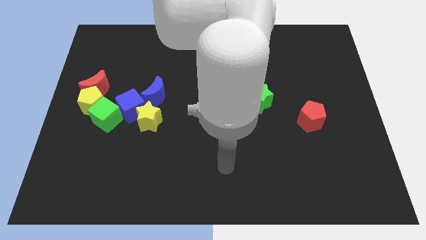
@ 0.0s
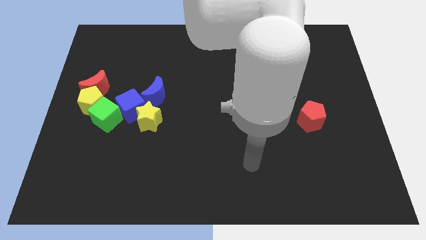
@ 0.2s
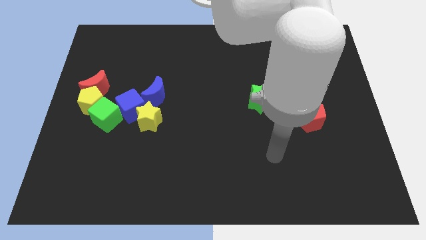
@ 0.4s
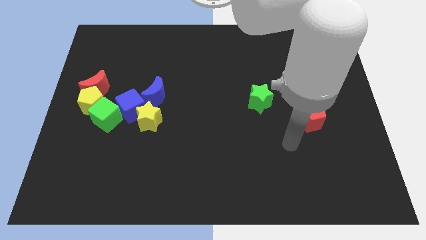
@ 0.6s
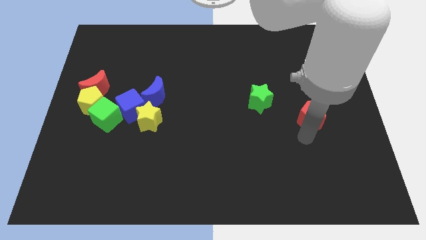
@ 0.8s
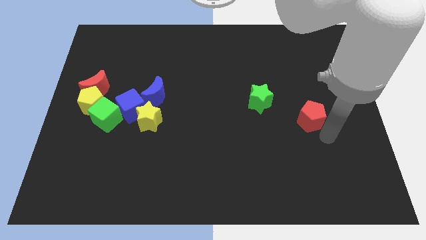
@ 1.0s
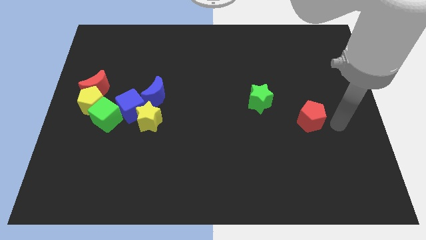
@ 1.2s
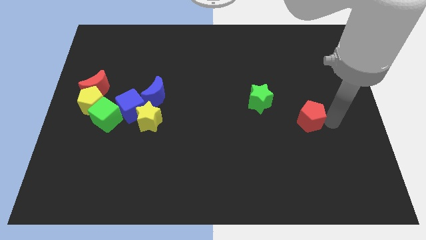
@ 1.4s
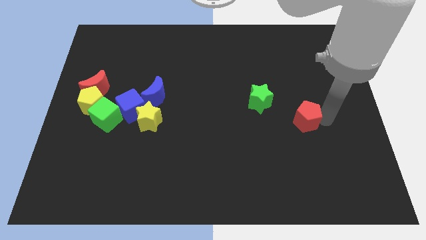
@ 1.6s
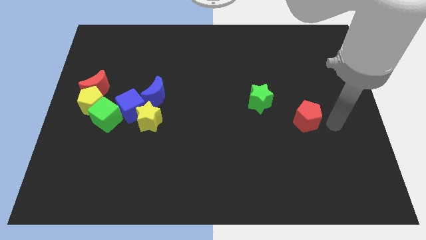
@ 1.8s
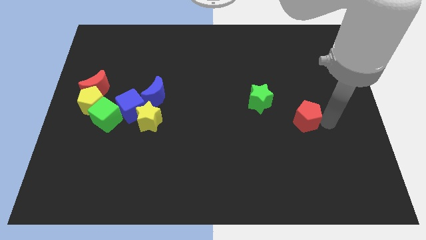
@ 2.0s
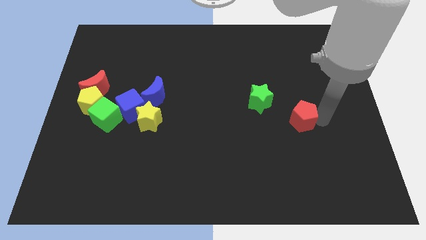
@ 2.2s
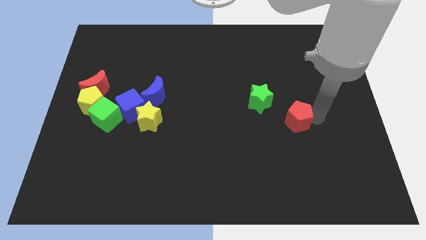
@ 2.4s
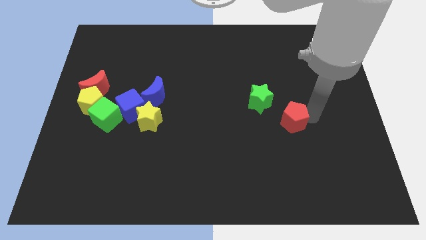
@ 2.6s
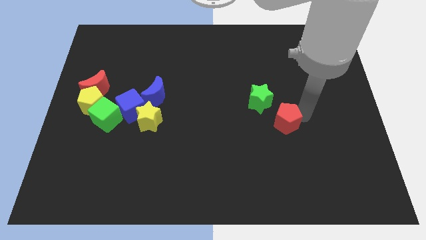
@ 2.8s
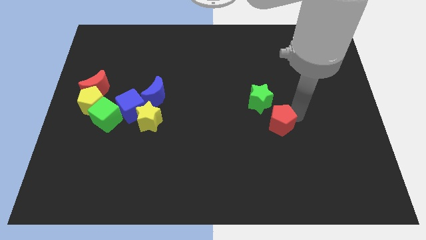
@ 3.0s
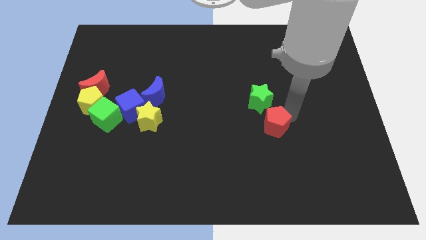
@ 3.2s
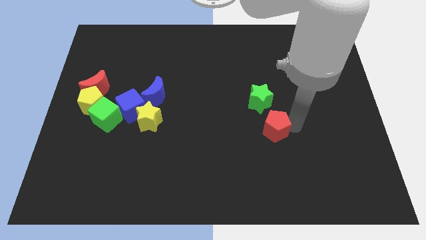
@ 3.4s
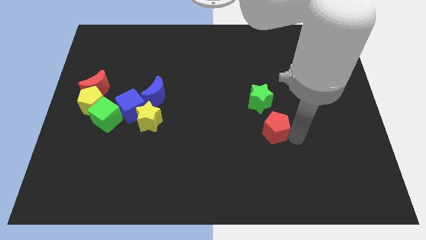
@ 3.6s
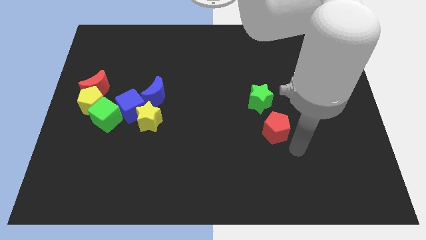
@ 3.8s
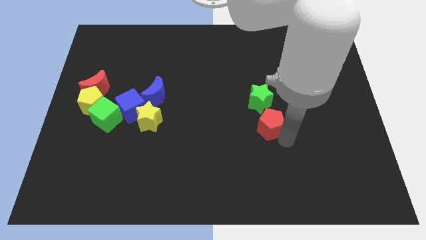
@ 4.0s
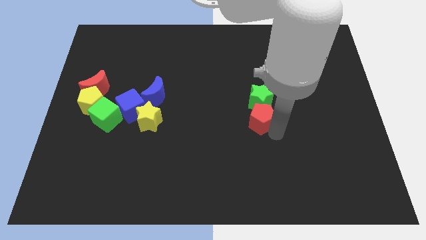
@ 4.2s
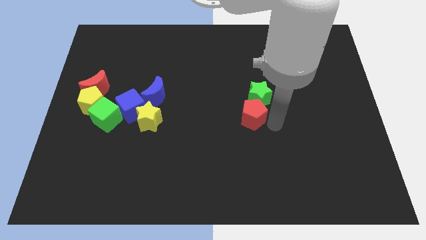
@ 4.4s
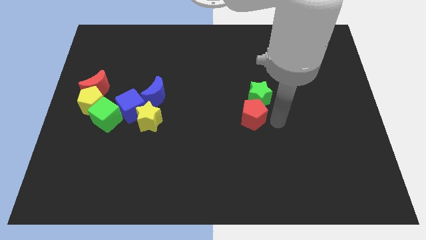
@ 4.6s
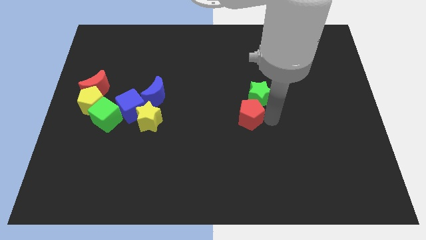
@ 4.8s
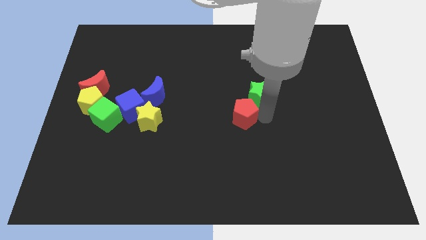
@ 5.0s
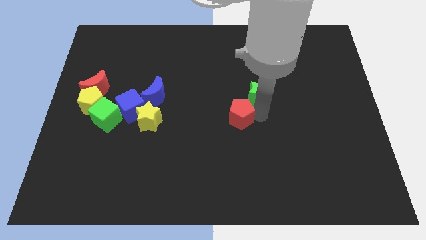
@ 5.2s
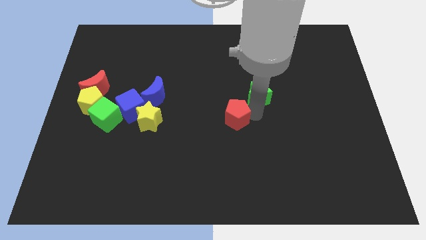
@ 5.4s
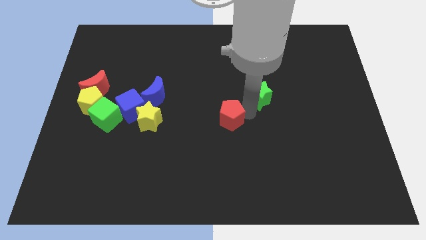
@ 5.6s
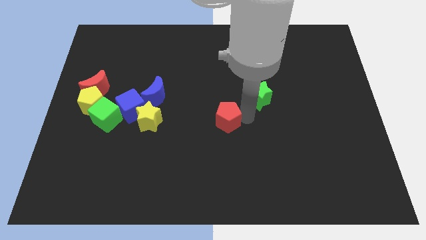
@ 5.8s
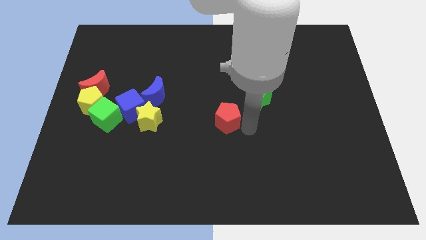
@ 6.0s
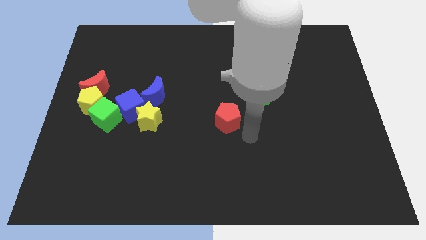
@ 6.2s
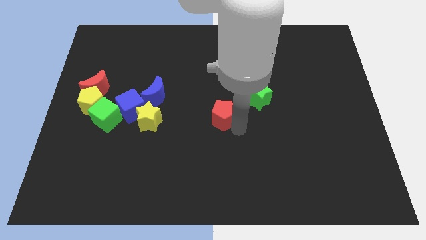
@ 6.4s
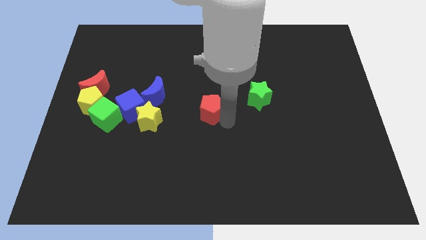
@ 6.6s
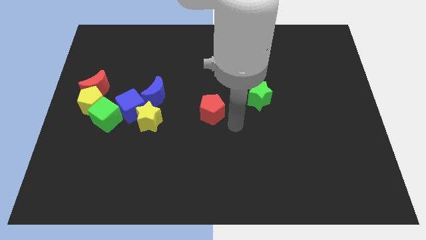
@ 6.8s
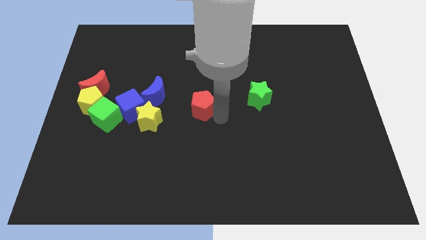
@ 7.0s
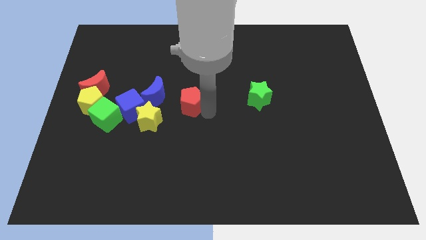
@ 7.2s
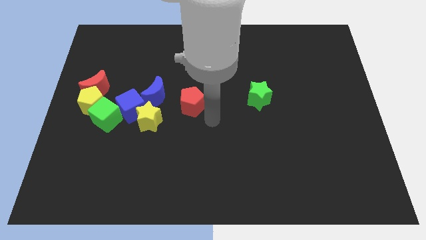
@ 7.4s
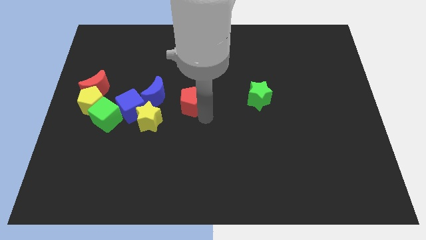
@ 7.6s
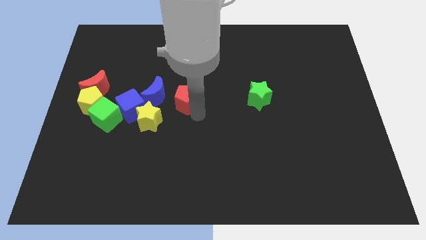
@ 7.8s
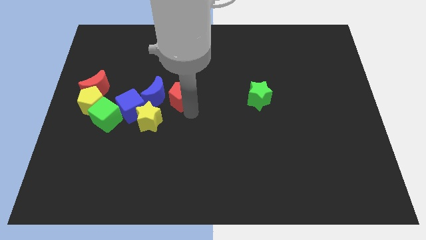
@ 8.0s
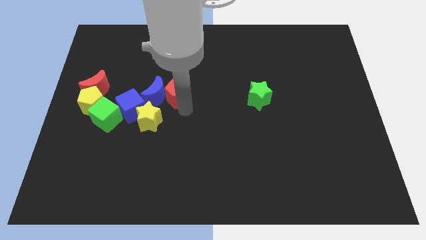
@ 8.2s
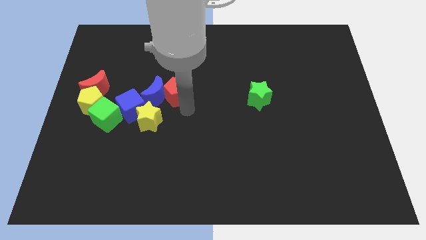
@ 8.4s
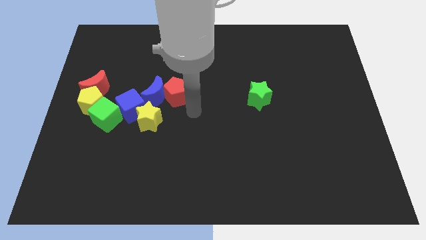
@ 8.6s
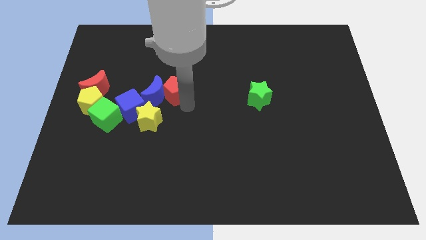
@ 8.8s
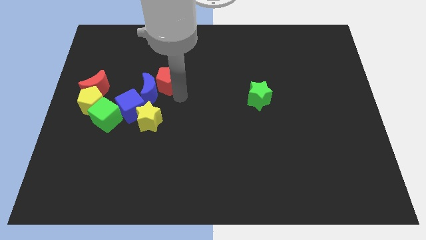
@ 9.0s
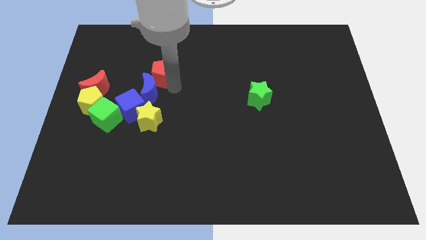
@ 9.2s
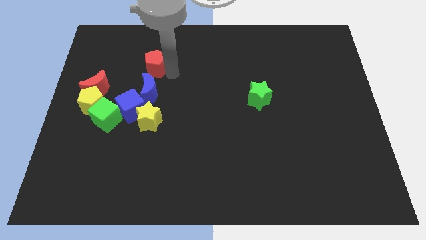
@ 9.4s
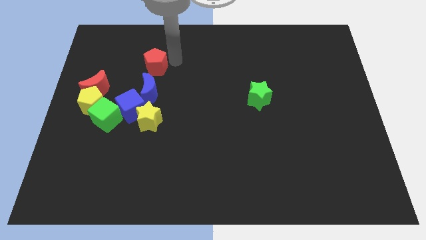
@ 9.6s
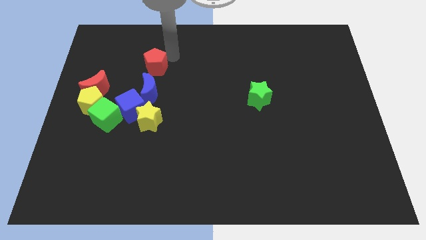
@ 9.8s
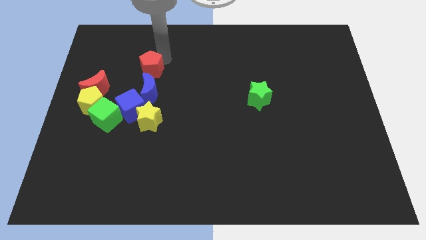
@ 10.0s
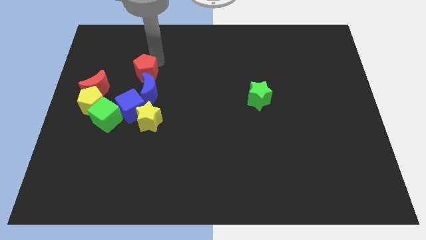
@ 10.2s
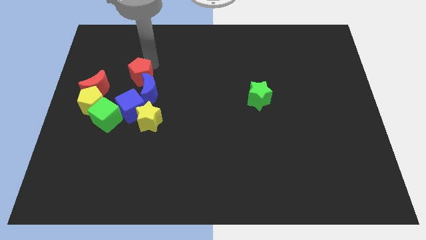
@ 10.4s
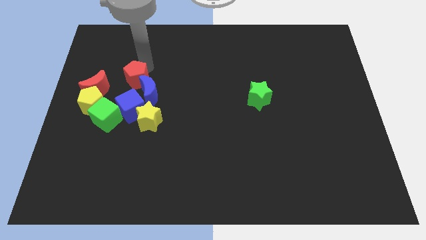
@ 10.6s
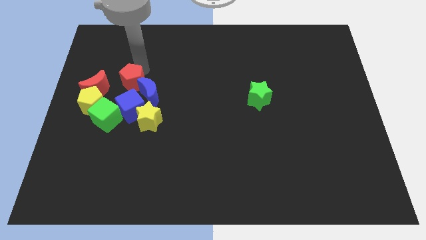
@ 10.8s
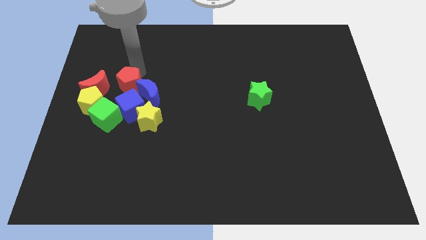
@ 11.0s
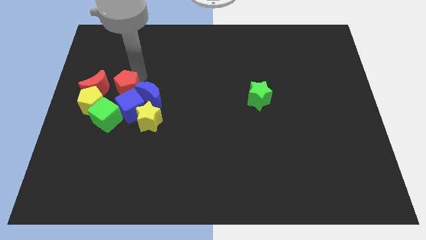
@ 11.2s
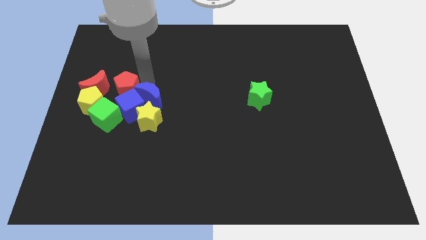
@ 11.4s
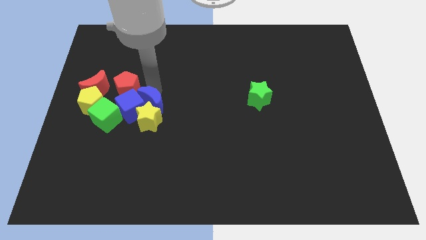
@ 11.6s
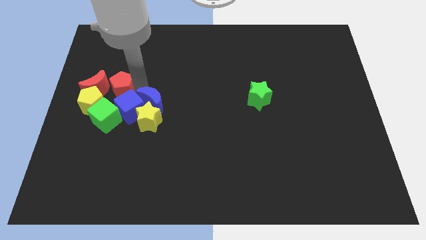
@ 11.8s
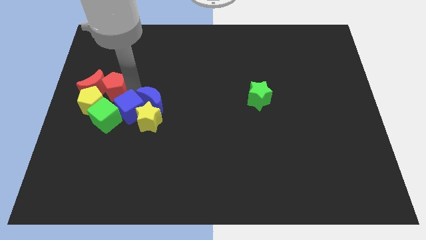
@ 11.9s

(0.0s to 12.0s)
slide the red pentagon close to the red moon

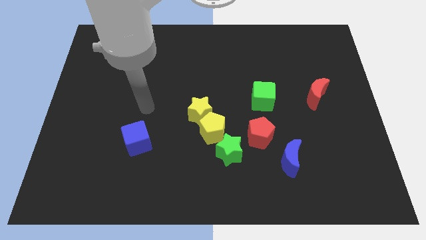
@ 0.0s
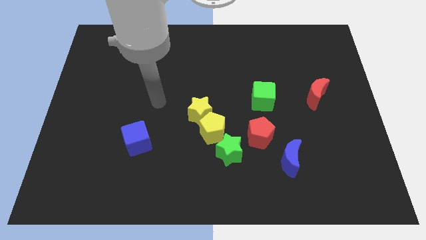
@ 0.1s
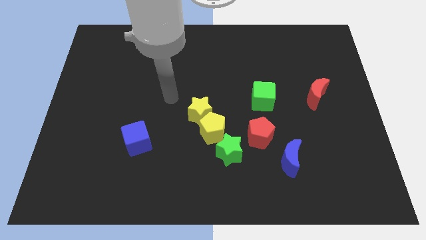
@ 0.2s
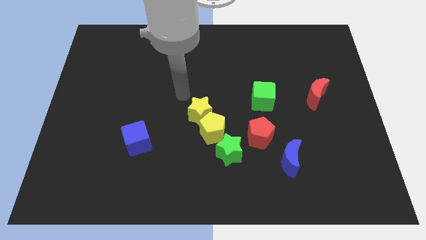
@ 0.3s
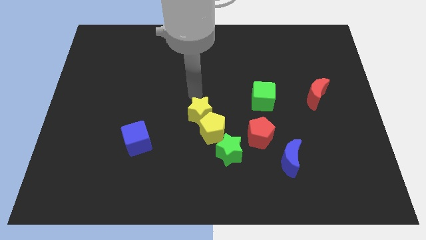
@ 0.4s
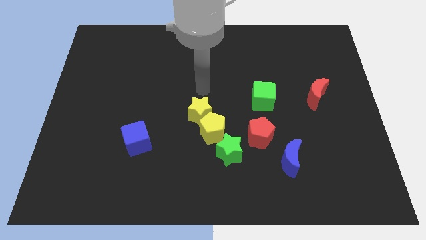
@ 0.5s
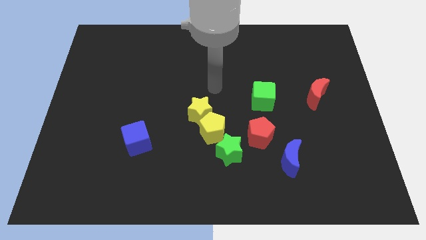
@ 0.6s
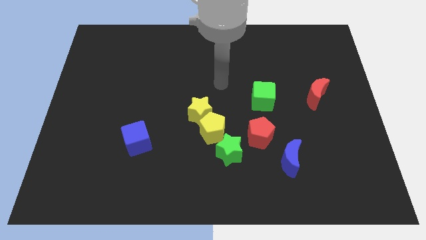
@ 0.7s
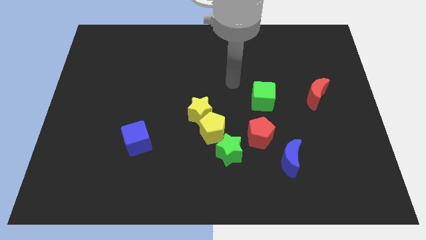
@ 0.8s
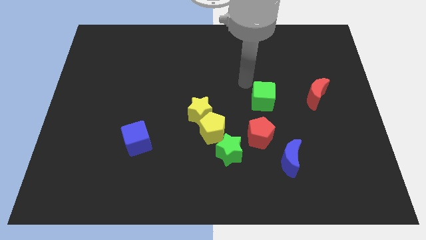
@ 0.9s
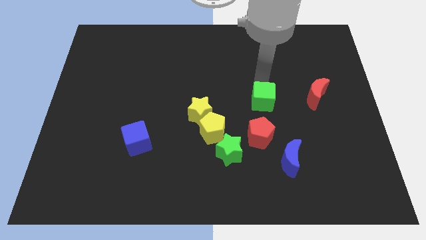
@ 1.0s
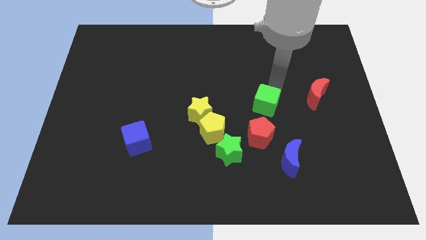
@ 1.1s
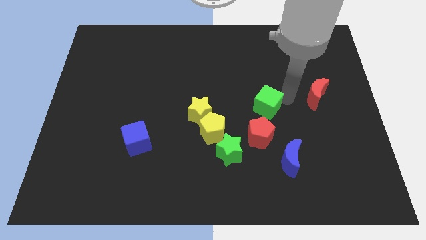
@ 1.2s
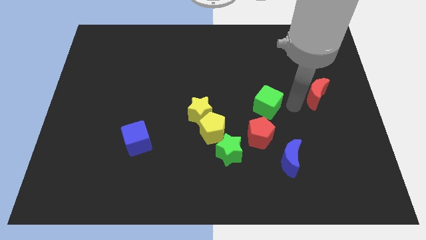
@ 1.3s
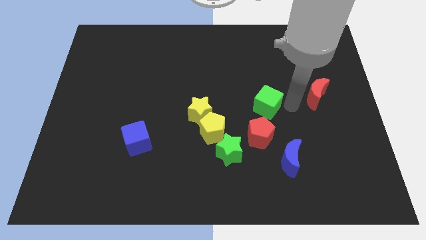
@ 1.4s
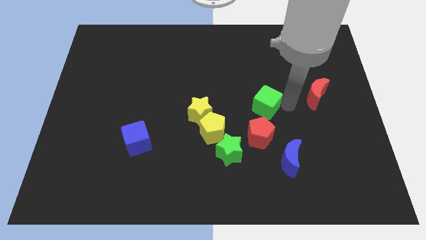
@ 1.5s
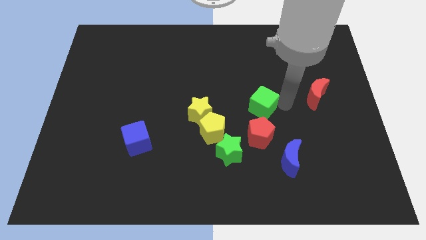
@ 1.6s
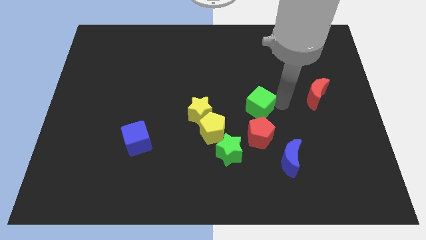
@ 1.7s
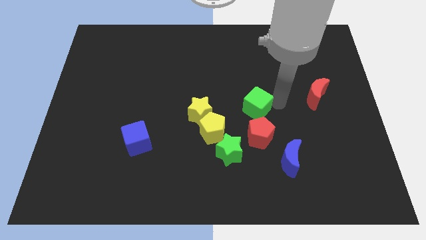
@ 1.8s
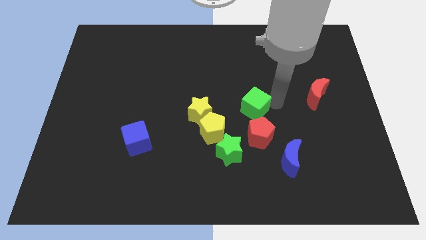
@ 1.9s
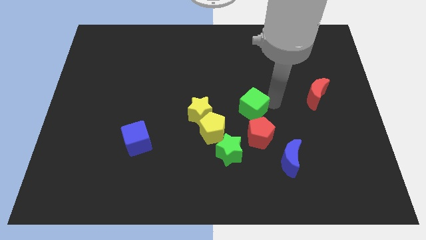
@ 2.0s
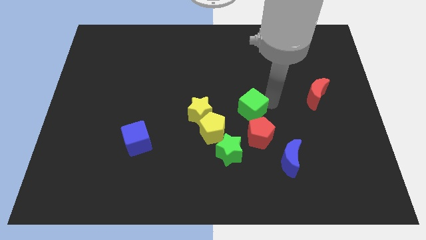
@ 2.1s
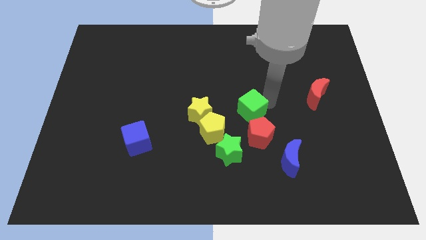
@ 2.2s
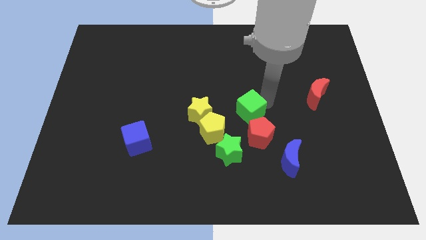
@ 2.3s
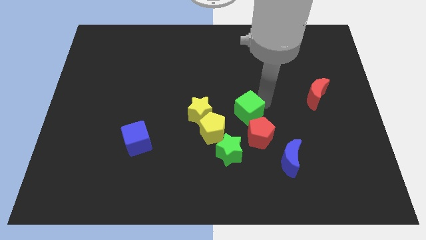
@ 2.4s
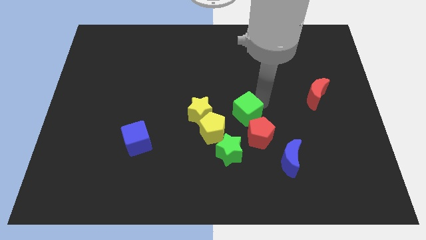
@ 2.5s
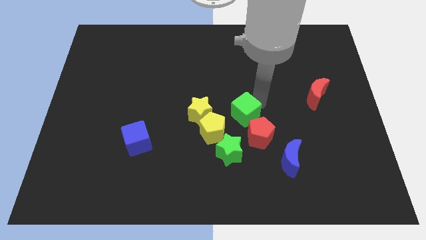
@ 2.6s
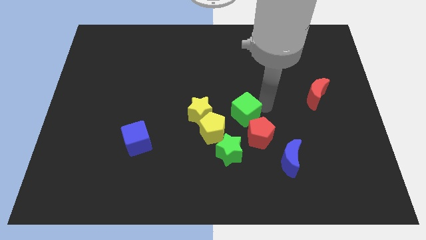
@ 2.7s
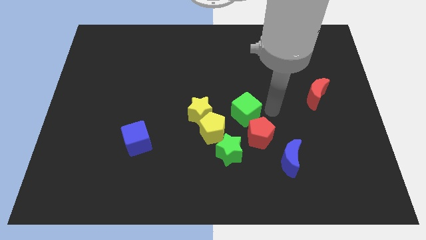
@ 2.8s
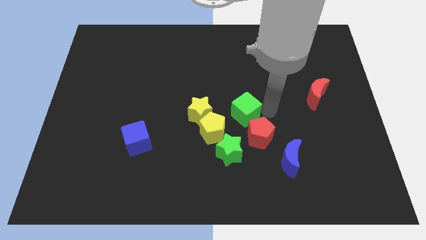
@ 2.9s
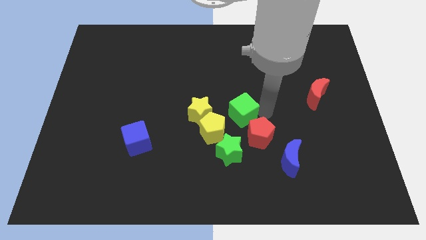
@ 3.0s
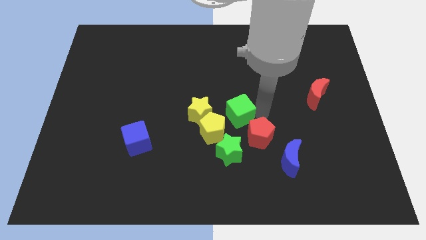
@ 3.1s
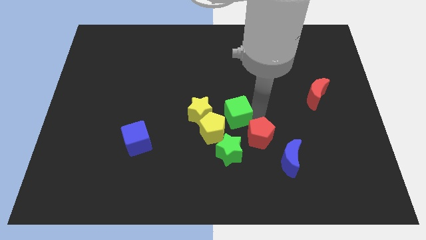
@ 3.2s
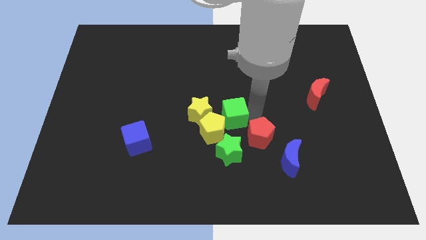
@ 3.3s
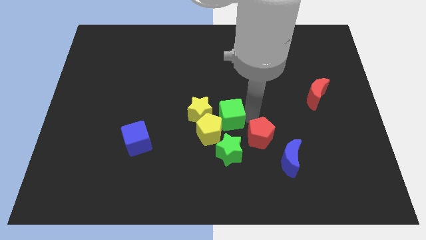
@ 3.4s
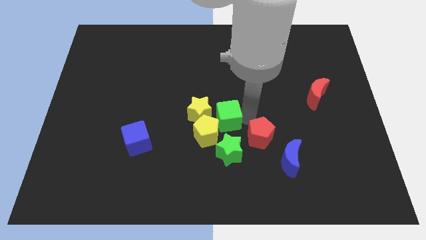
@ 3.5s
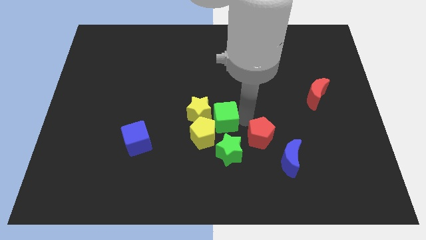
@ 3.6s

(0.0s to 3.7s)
slide the green cube towards the yellow star
